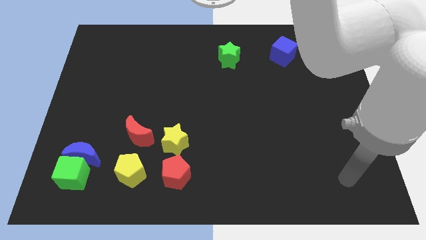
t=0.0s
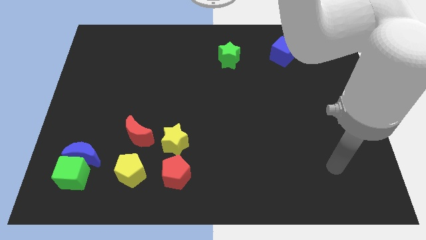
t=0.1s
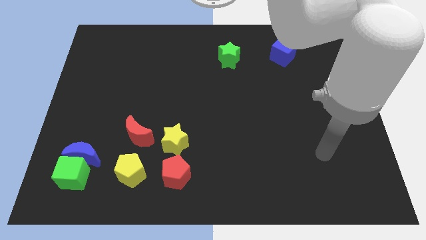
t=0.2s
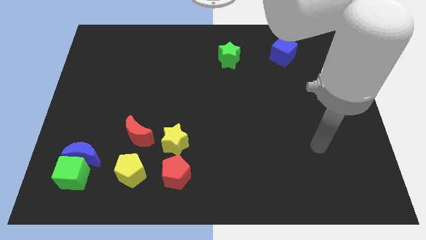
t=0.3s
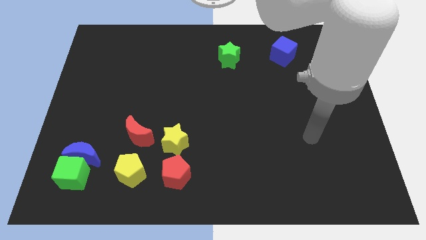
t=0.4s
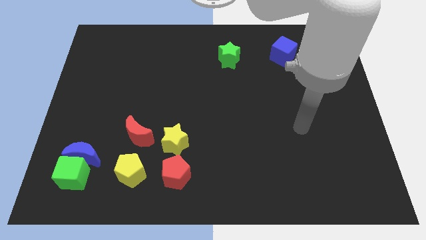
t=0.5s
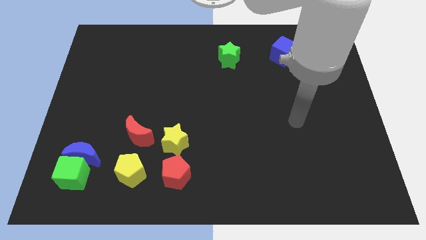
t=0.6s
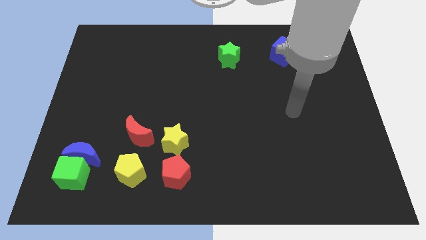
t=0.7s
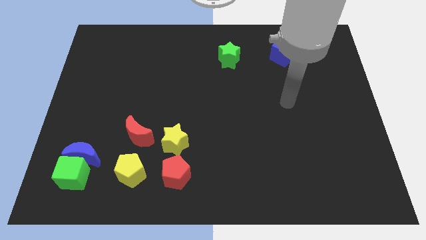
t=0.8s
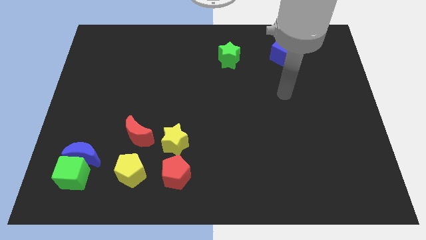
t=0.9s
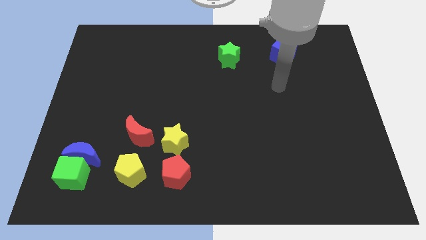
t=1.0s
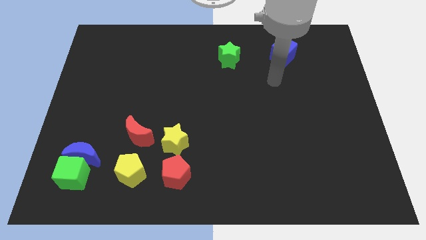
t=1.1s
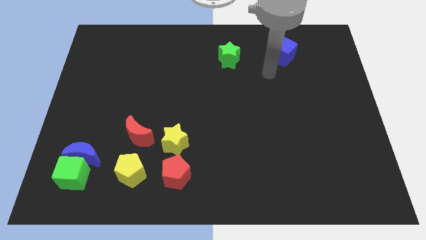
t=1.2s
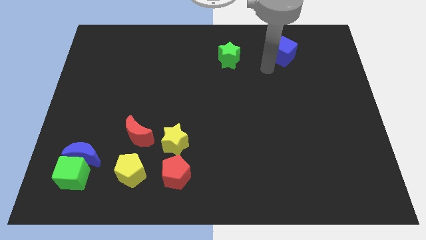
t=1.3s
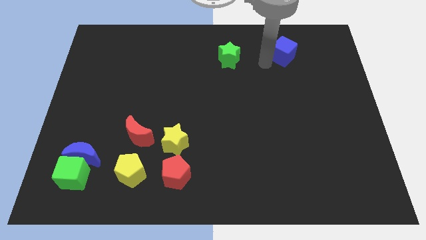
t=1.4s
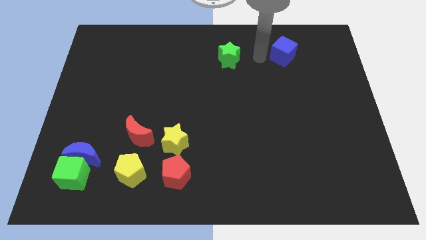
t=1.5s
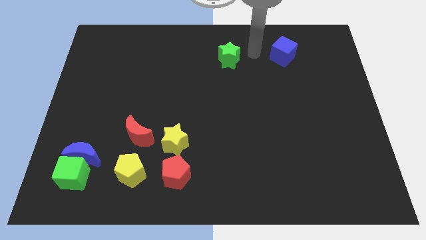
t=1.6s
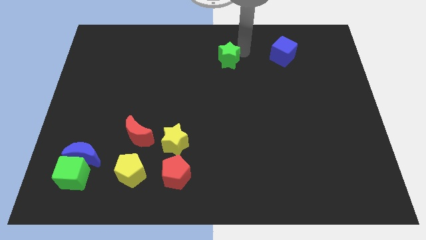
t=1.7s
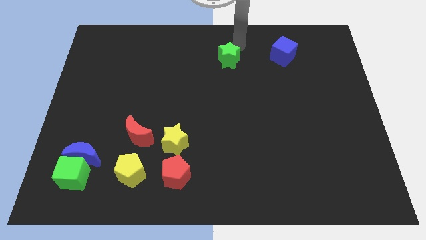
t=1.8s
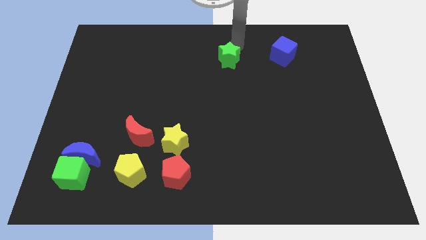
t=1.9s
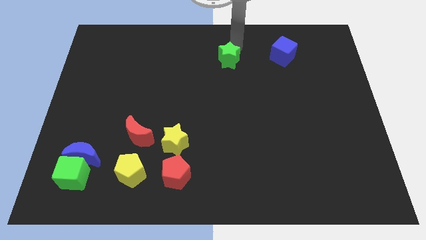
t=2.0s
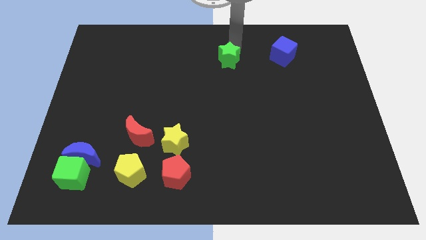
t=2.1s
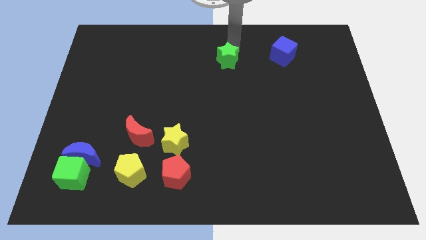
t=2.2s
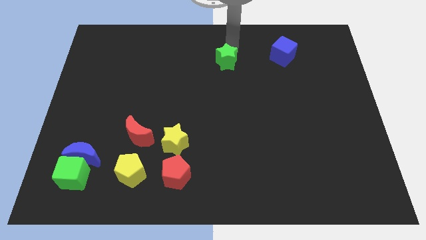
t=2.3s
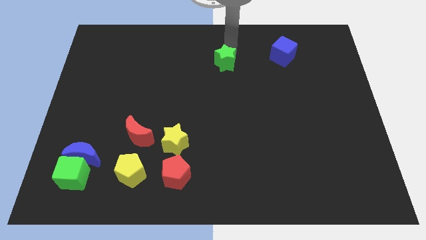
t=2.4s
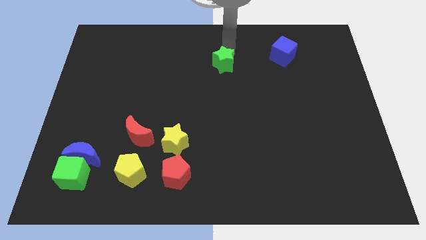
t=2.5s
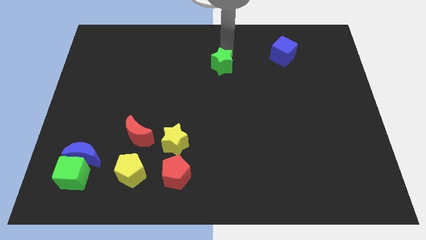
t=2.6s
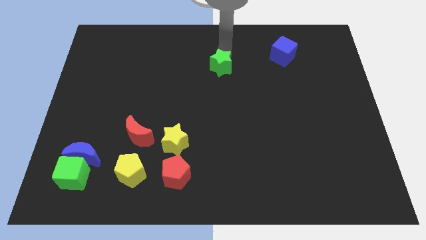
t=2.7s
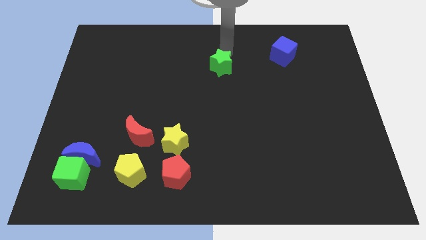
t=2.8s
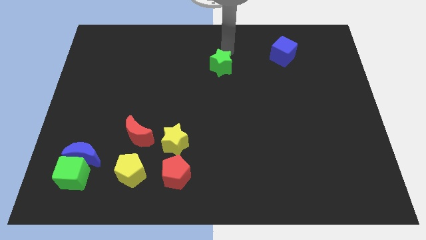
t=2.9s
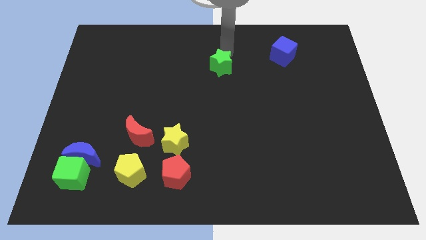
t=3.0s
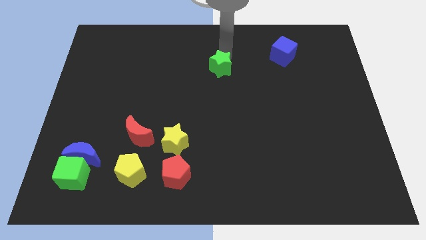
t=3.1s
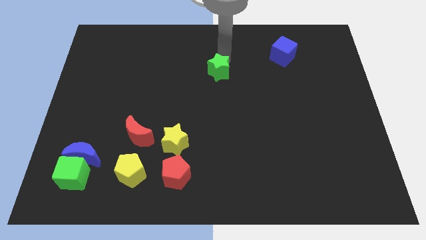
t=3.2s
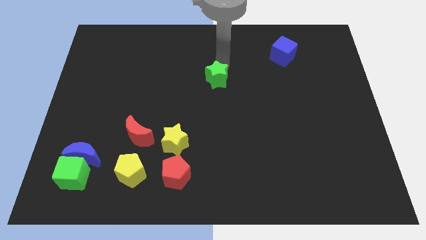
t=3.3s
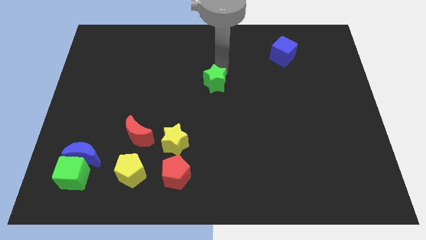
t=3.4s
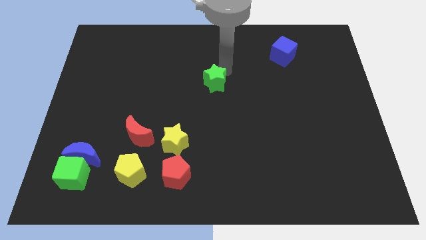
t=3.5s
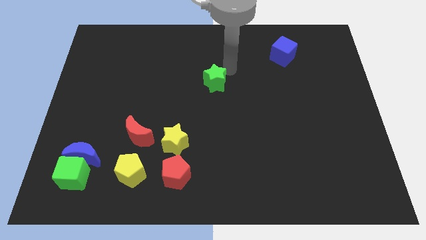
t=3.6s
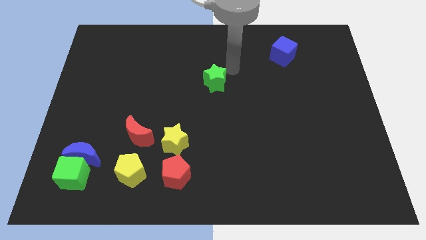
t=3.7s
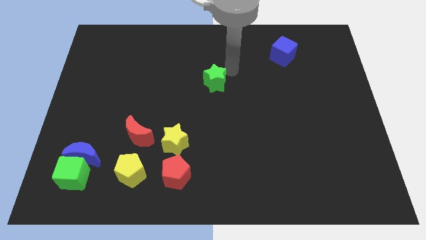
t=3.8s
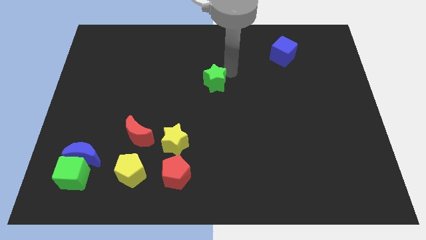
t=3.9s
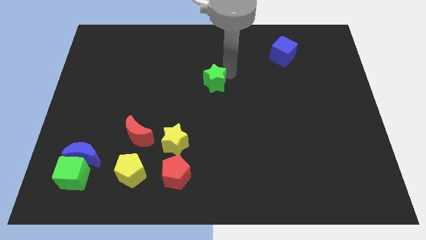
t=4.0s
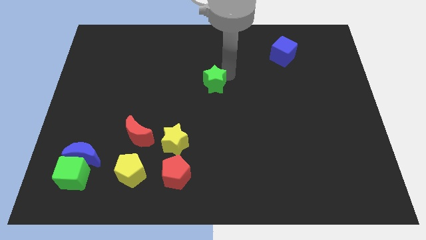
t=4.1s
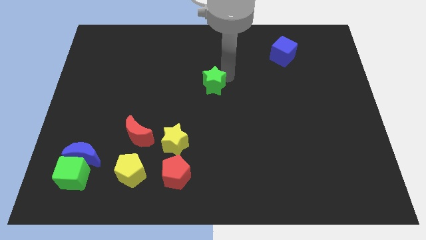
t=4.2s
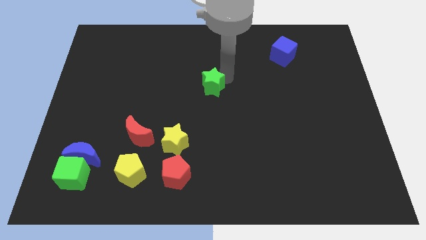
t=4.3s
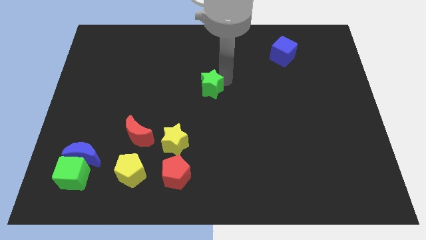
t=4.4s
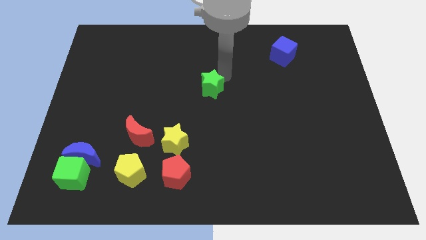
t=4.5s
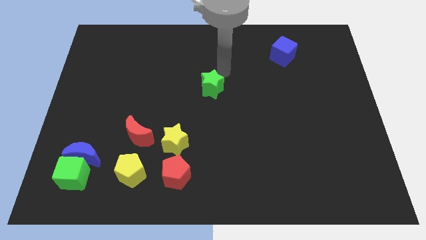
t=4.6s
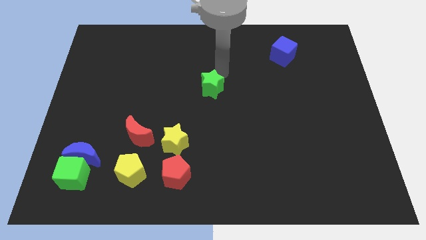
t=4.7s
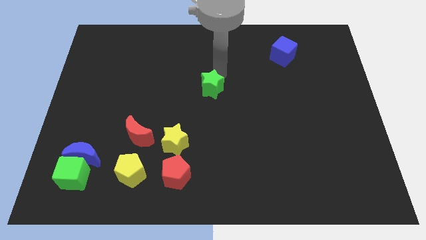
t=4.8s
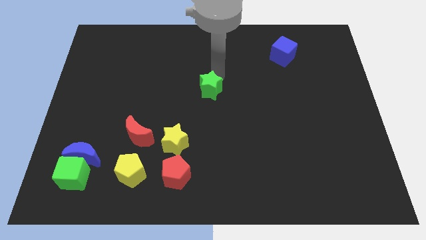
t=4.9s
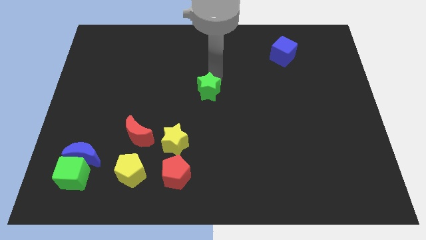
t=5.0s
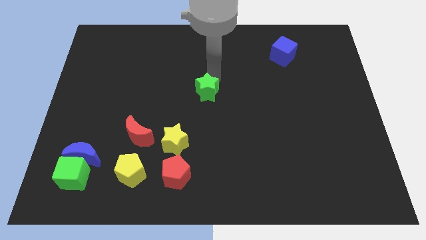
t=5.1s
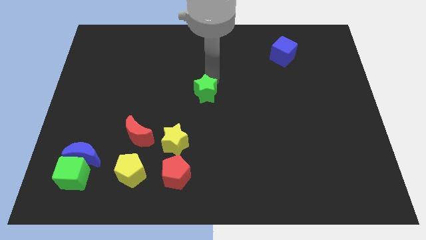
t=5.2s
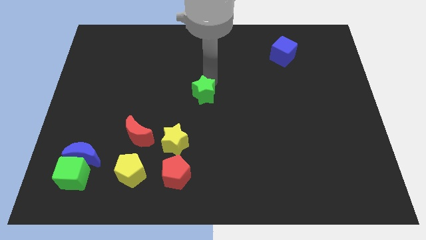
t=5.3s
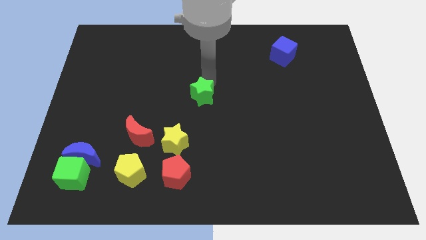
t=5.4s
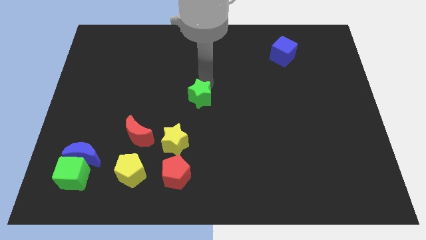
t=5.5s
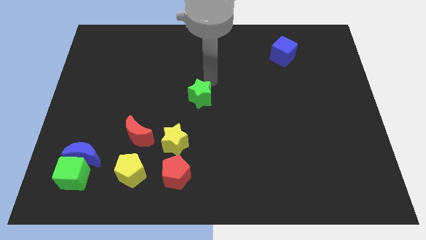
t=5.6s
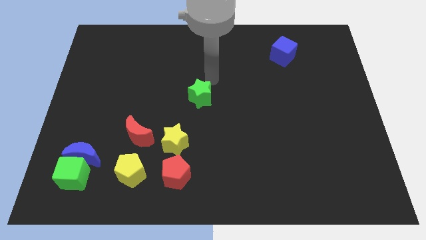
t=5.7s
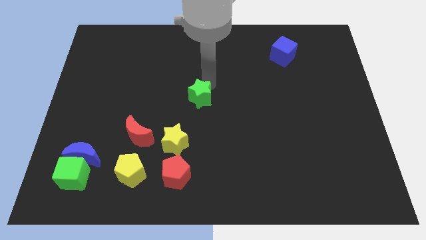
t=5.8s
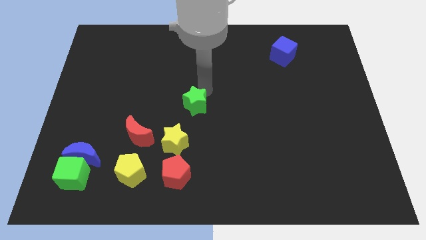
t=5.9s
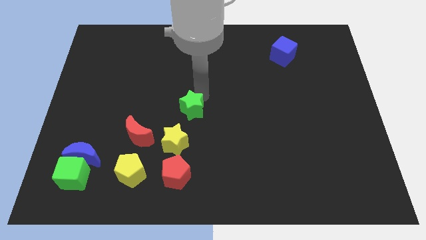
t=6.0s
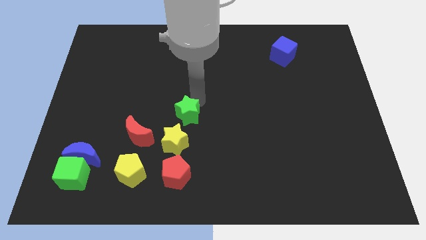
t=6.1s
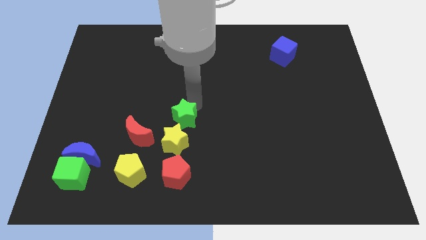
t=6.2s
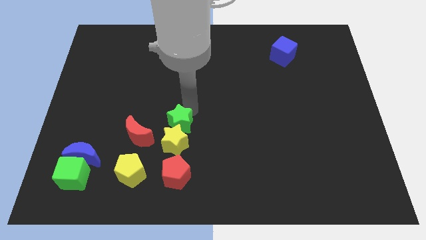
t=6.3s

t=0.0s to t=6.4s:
move the green star to the yellow star

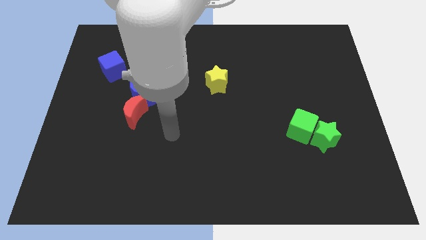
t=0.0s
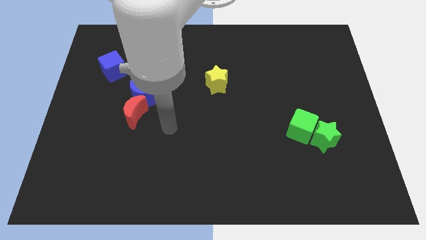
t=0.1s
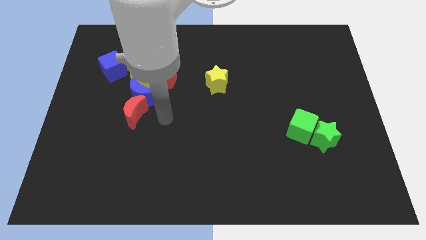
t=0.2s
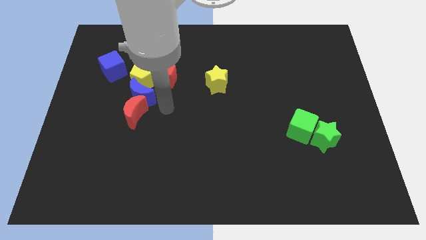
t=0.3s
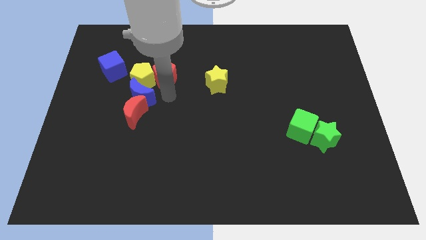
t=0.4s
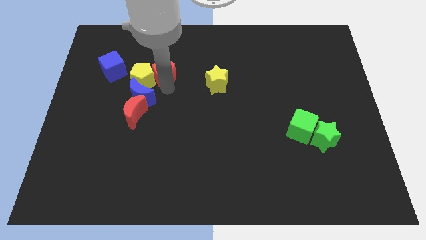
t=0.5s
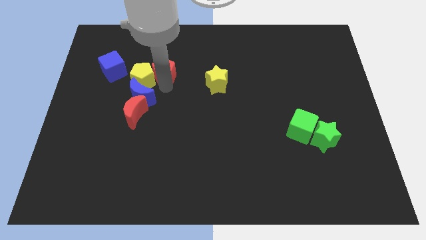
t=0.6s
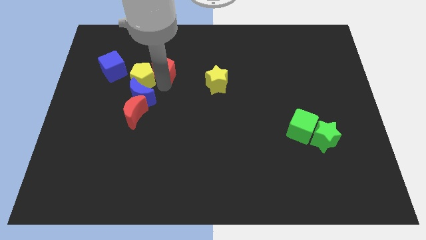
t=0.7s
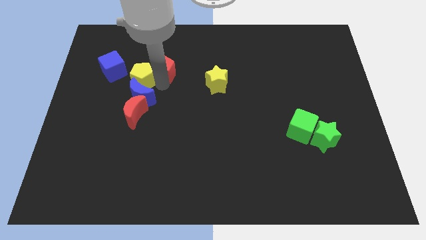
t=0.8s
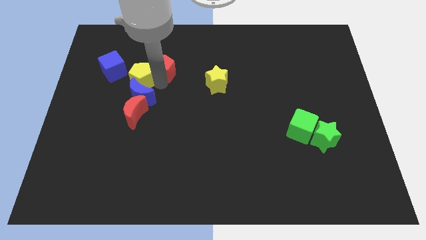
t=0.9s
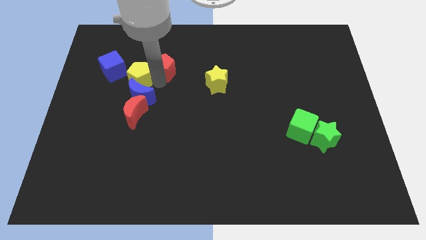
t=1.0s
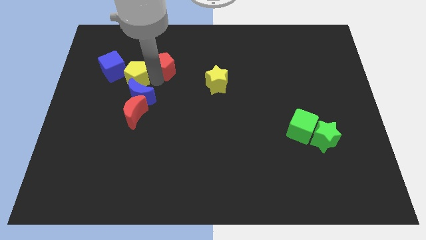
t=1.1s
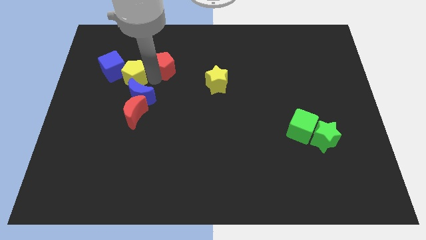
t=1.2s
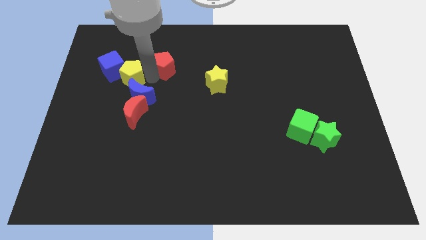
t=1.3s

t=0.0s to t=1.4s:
slide the yellow pentagon to the blue cube

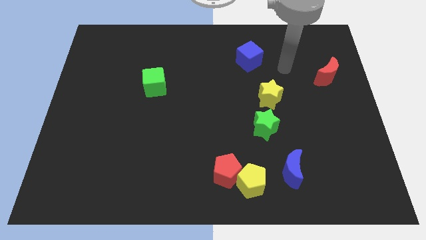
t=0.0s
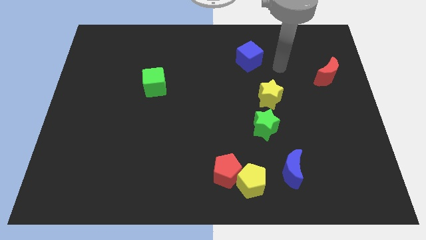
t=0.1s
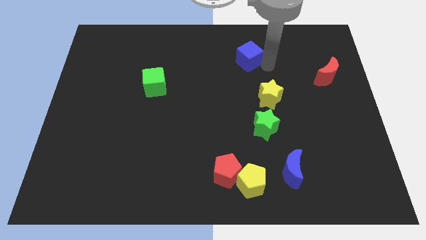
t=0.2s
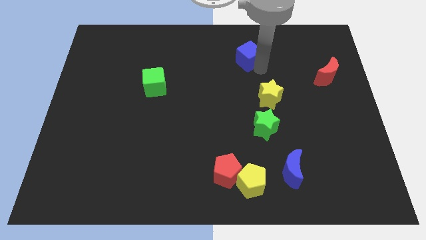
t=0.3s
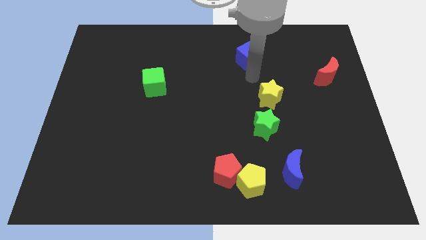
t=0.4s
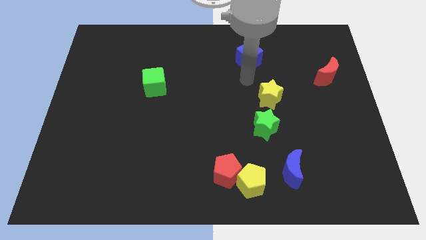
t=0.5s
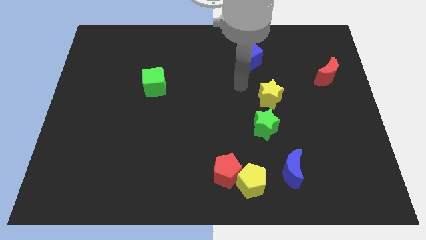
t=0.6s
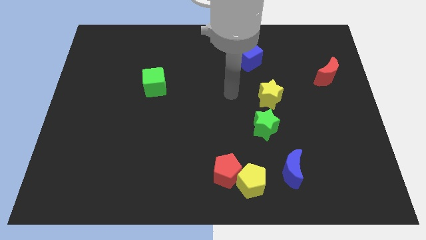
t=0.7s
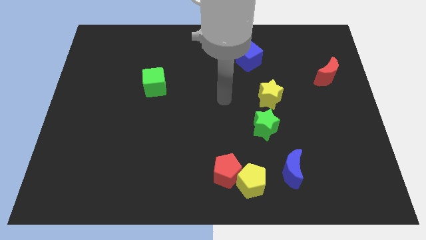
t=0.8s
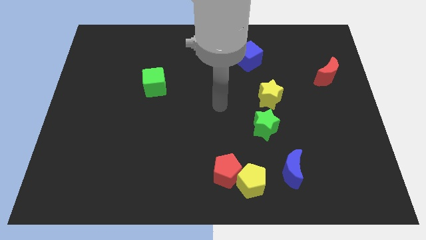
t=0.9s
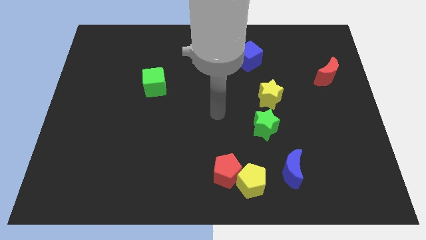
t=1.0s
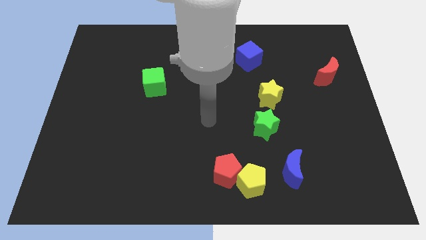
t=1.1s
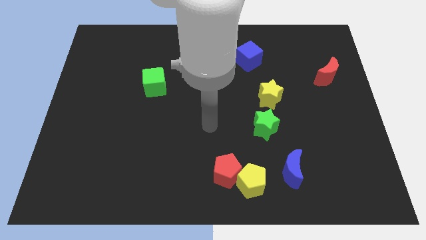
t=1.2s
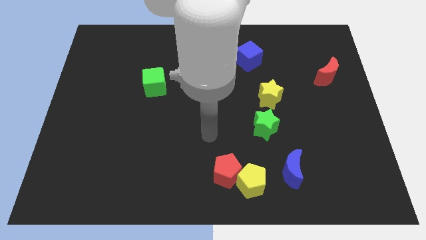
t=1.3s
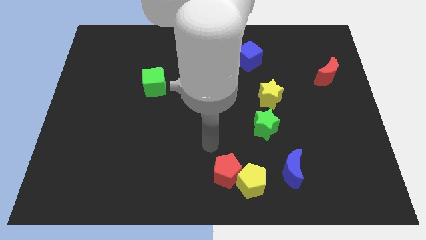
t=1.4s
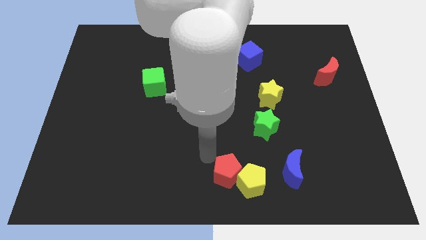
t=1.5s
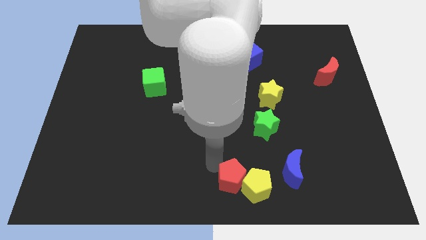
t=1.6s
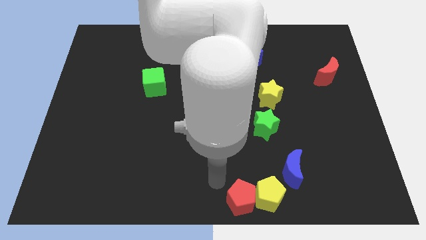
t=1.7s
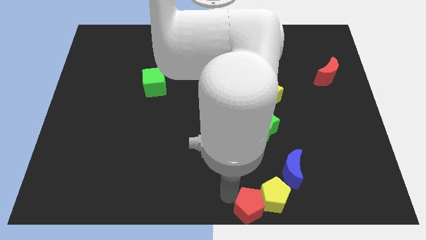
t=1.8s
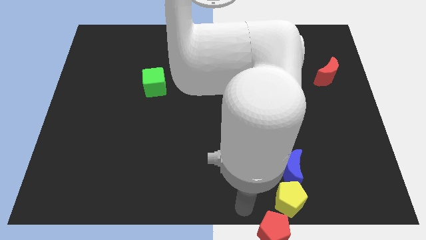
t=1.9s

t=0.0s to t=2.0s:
move the yellow pentagon next to the blue moon
